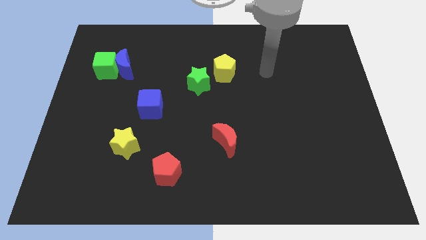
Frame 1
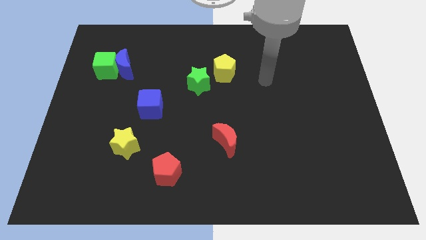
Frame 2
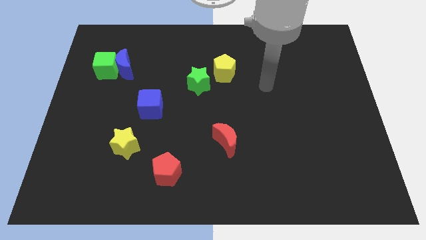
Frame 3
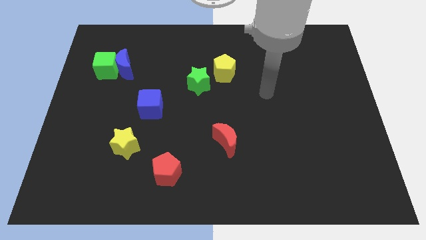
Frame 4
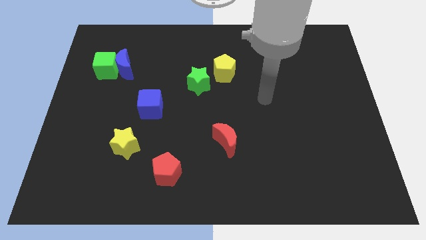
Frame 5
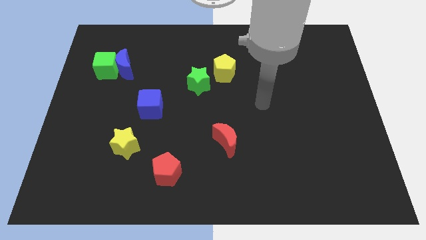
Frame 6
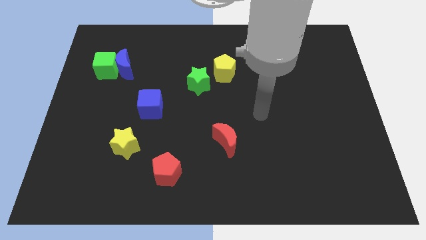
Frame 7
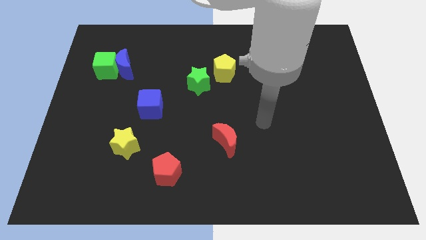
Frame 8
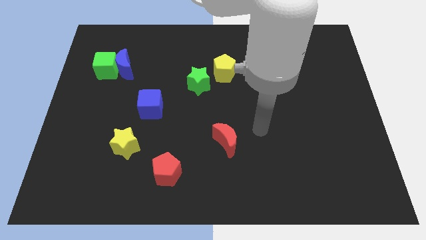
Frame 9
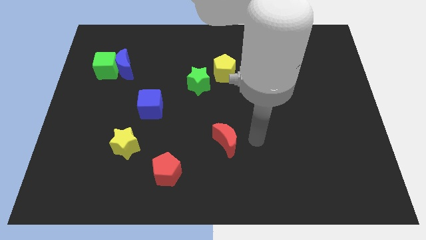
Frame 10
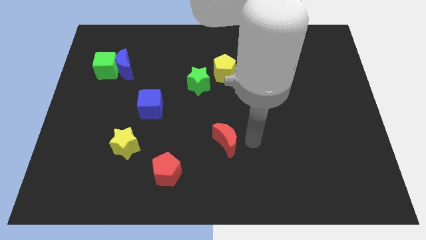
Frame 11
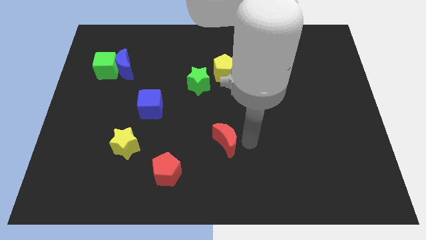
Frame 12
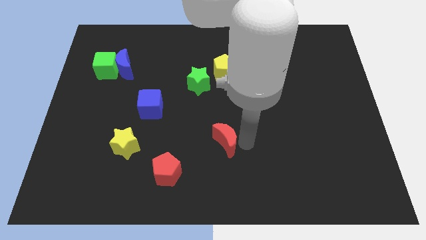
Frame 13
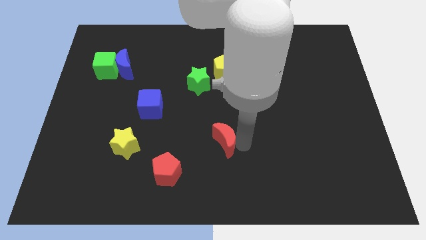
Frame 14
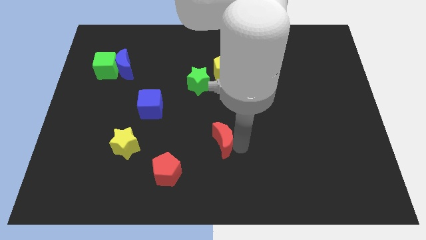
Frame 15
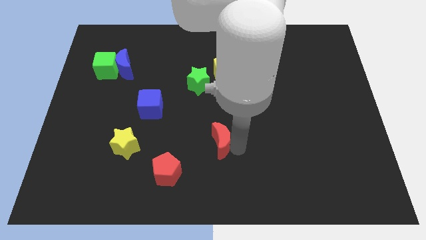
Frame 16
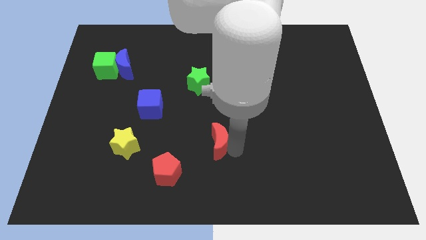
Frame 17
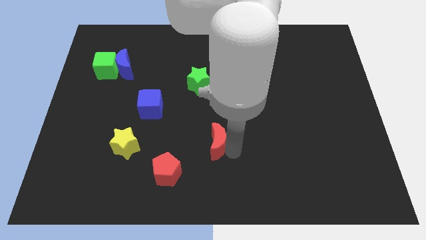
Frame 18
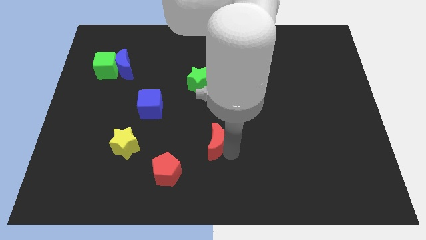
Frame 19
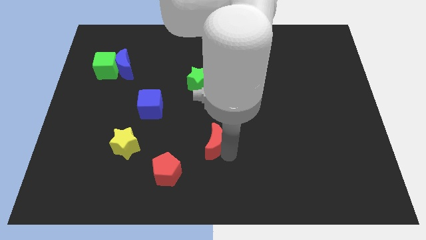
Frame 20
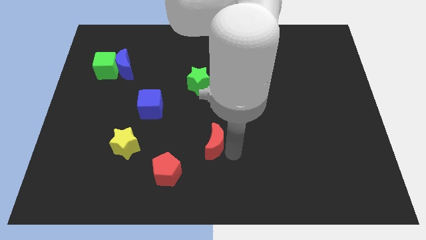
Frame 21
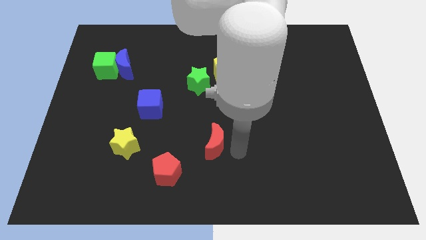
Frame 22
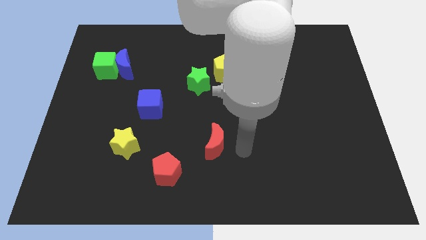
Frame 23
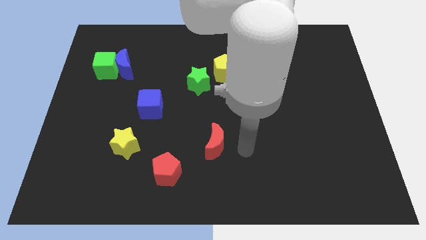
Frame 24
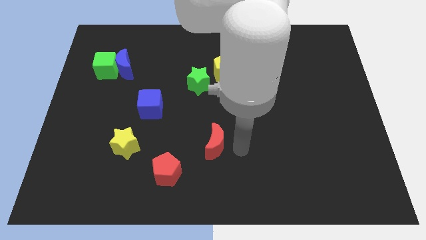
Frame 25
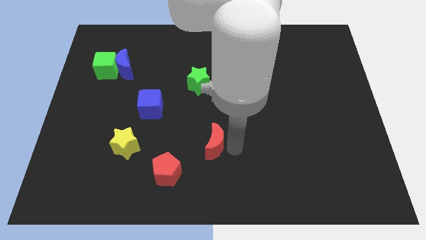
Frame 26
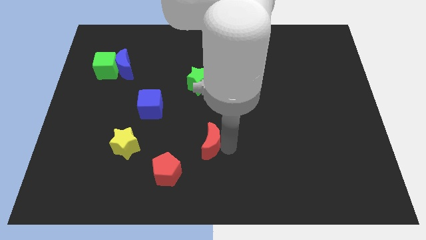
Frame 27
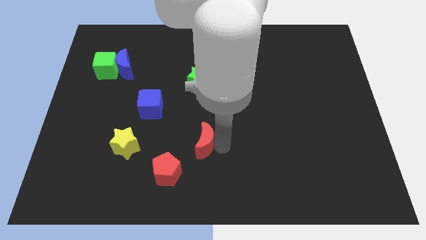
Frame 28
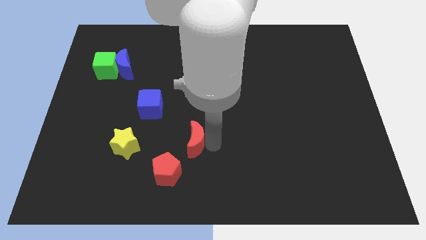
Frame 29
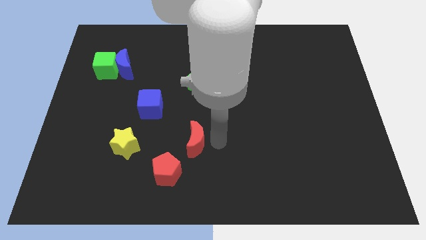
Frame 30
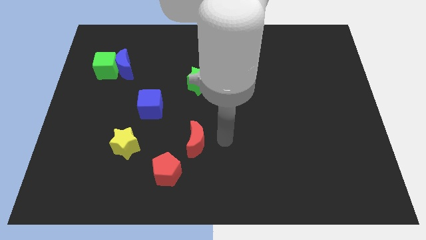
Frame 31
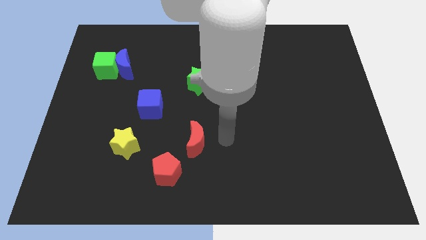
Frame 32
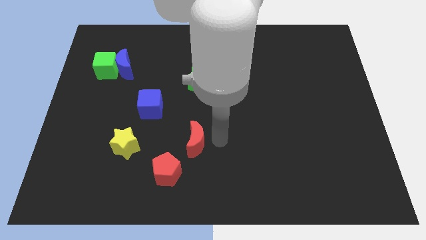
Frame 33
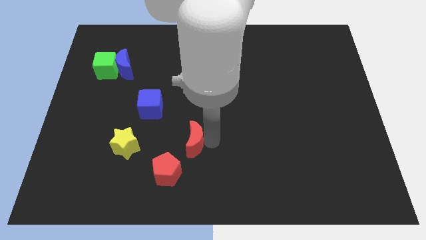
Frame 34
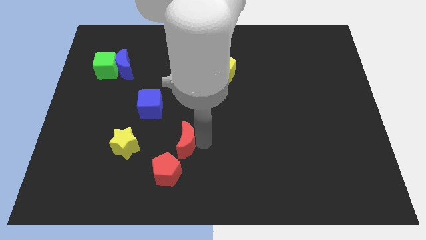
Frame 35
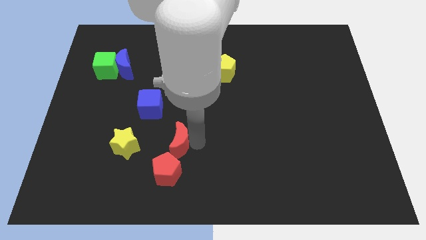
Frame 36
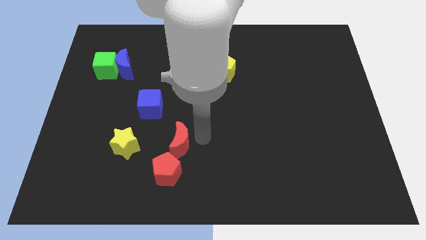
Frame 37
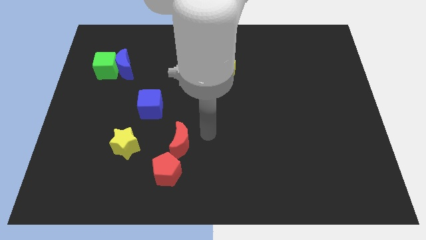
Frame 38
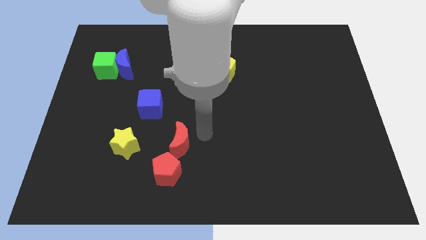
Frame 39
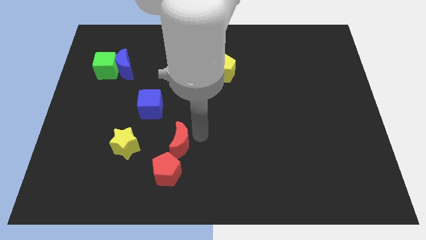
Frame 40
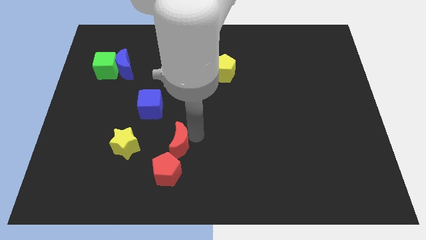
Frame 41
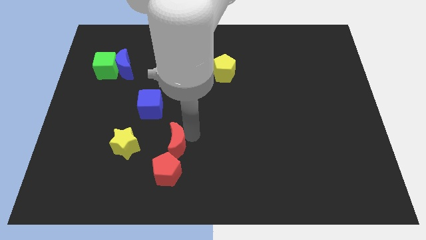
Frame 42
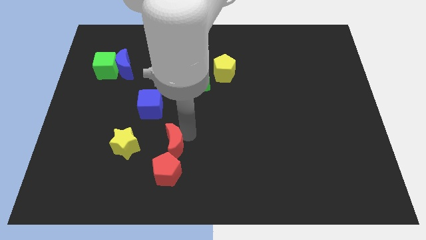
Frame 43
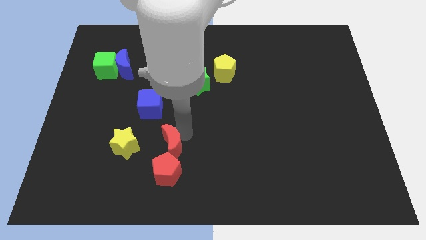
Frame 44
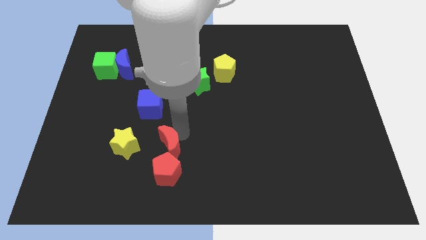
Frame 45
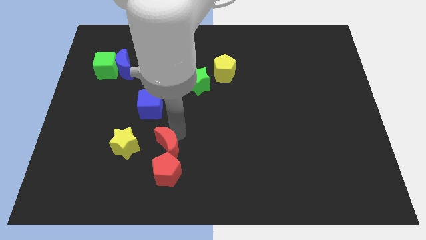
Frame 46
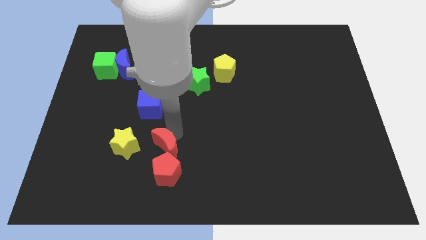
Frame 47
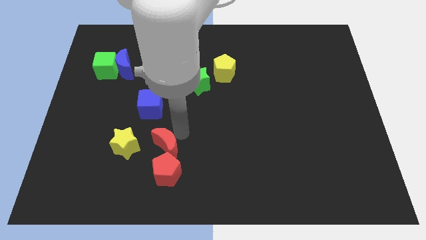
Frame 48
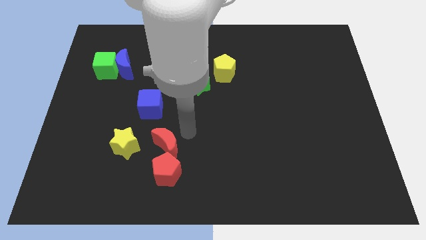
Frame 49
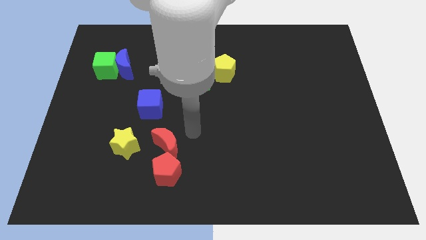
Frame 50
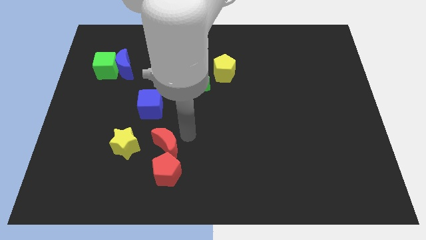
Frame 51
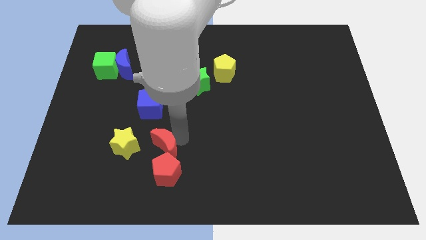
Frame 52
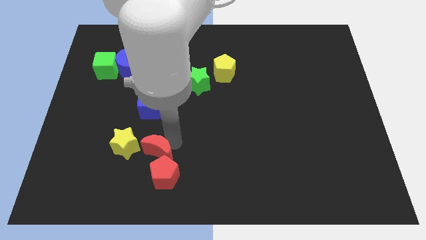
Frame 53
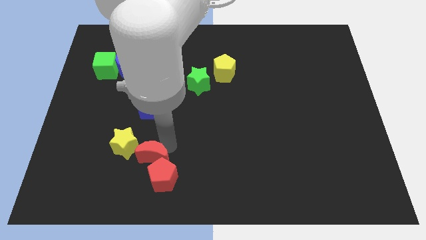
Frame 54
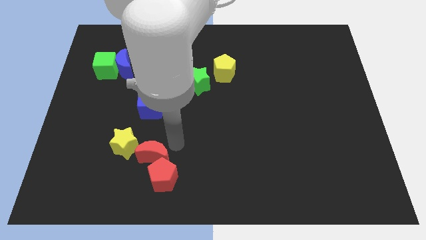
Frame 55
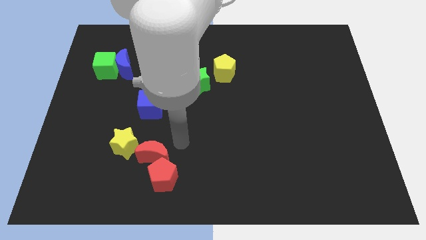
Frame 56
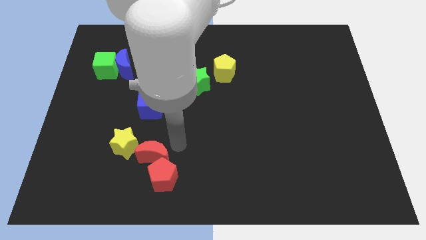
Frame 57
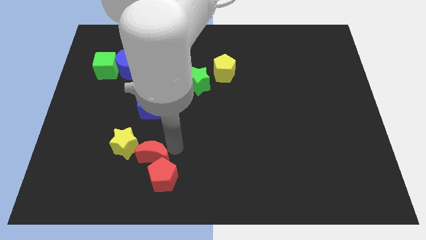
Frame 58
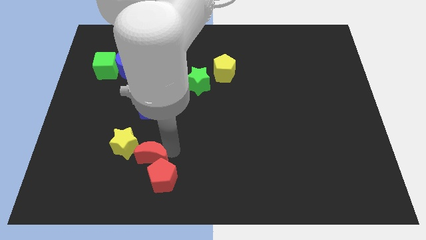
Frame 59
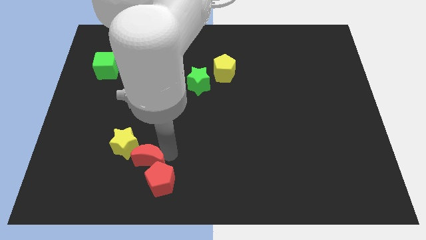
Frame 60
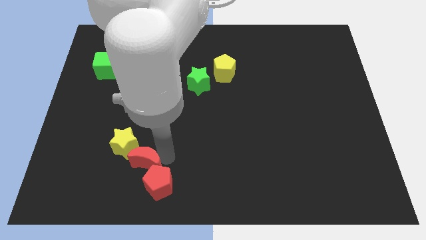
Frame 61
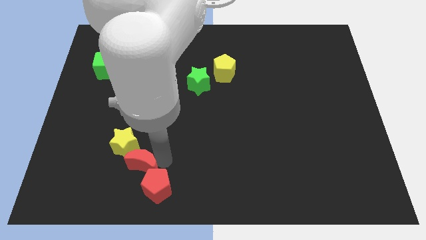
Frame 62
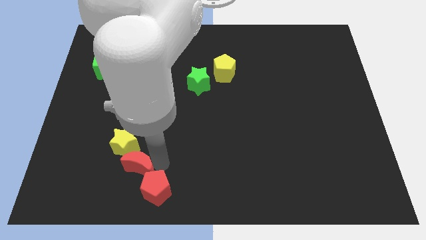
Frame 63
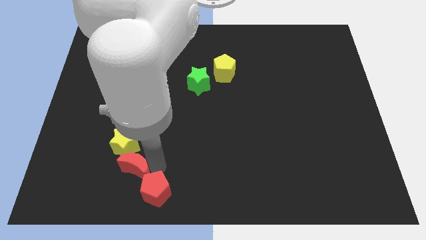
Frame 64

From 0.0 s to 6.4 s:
move the red moon just left of the red pentagon
